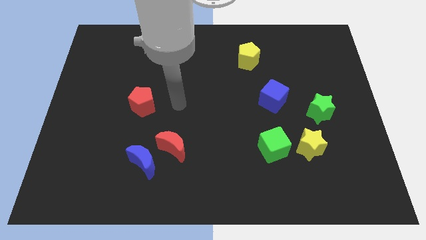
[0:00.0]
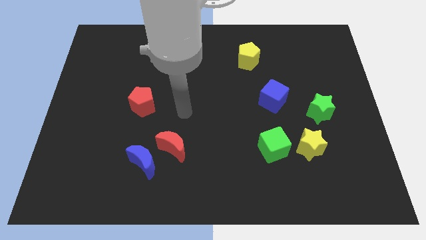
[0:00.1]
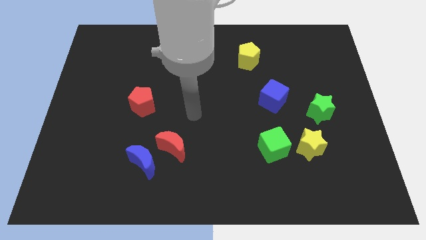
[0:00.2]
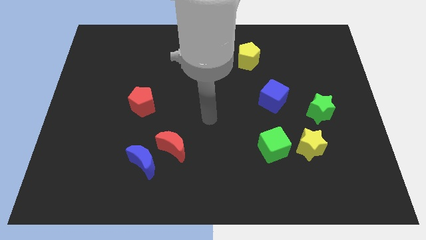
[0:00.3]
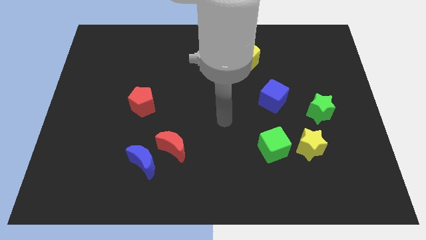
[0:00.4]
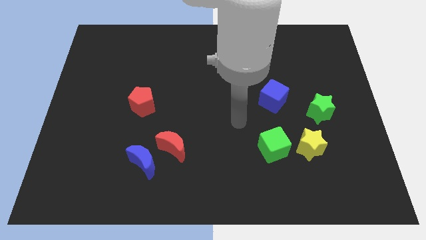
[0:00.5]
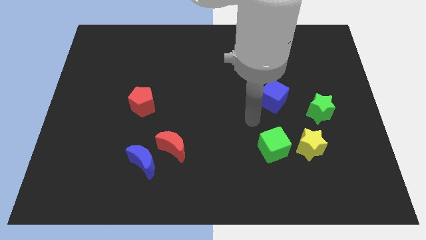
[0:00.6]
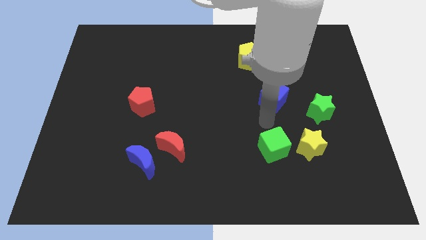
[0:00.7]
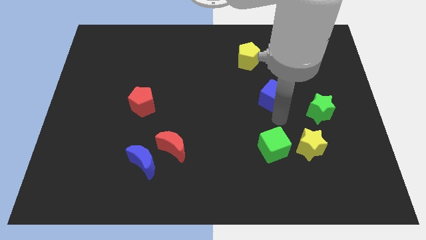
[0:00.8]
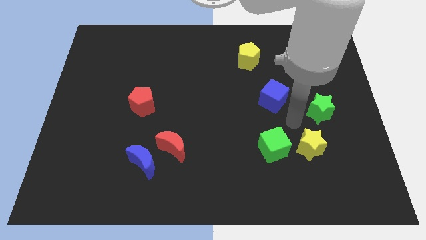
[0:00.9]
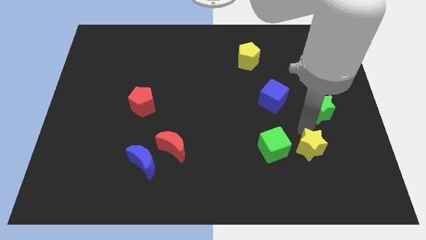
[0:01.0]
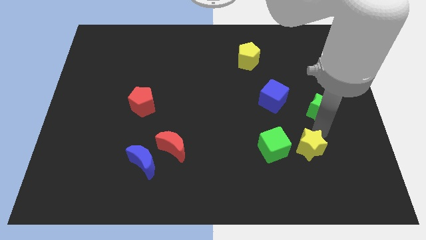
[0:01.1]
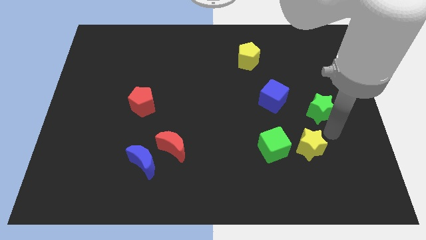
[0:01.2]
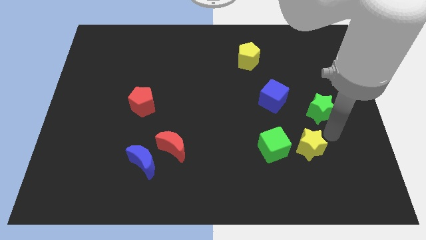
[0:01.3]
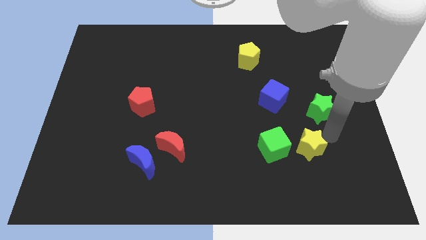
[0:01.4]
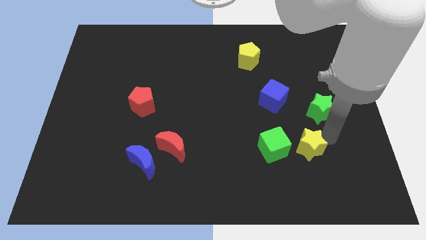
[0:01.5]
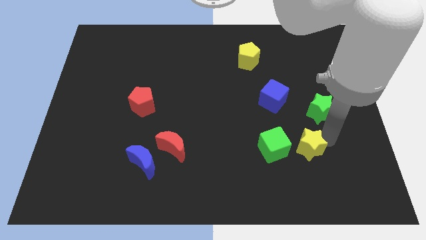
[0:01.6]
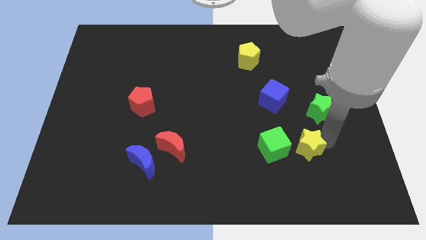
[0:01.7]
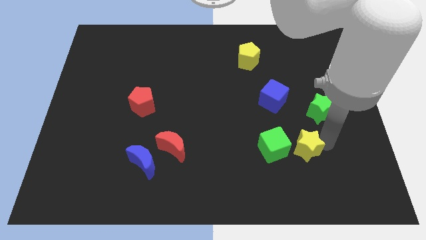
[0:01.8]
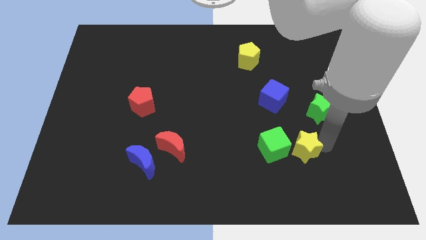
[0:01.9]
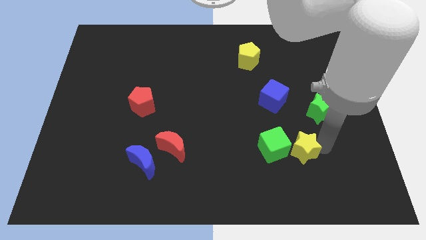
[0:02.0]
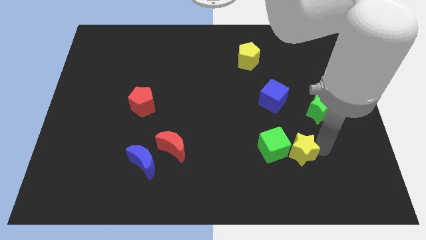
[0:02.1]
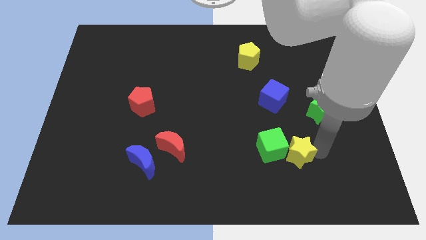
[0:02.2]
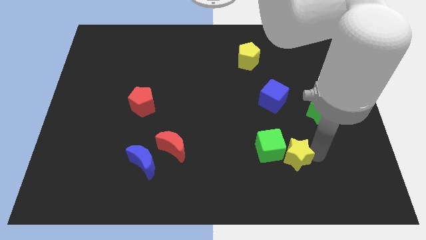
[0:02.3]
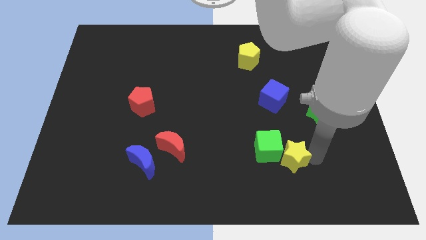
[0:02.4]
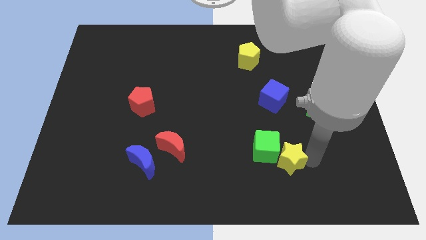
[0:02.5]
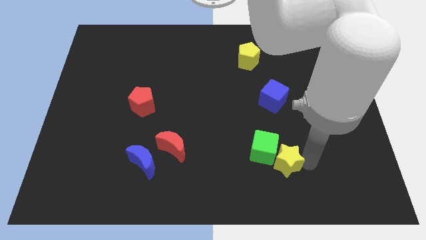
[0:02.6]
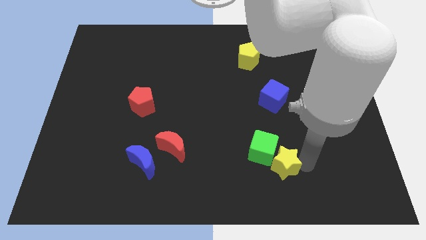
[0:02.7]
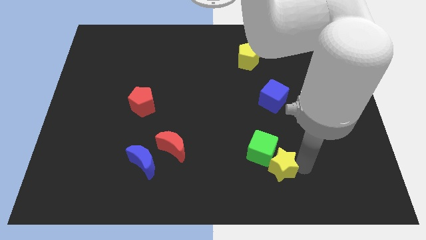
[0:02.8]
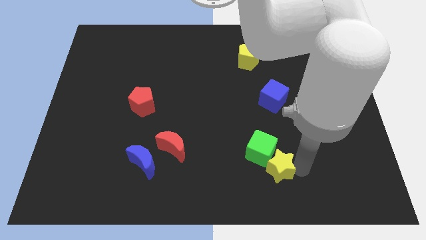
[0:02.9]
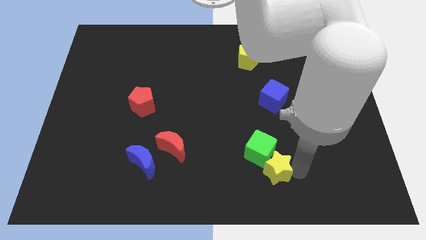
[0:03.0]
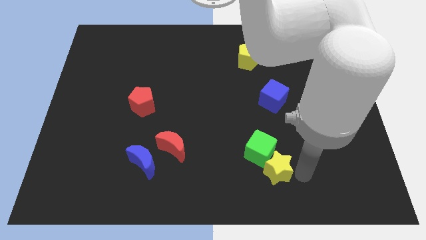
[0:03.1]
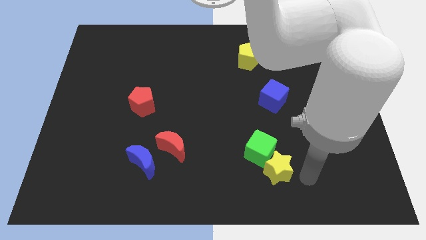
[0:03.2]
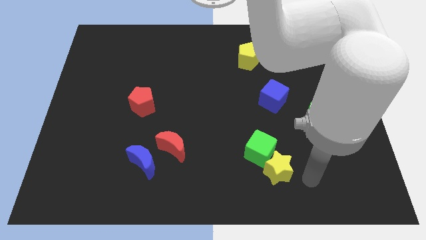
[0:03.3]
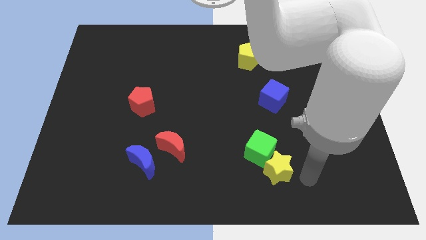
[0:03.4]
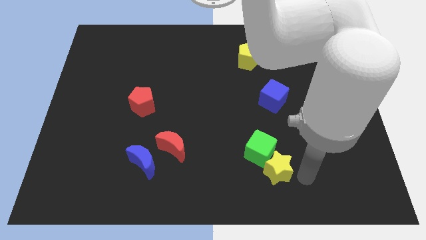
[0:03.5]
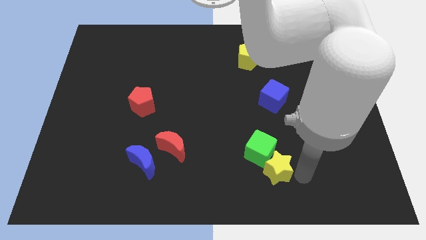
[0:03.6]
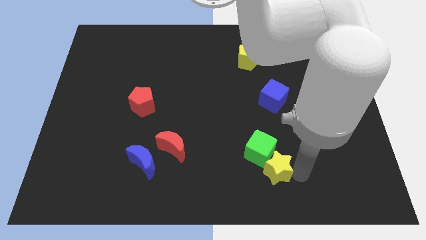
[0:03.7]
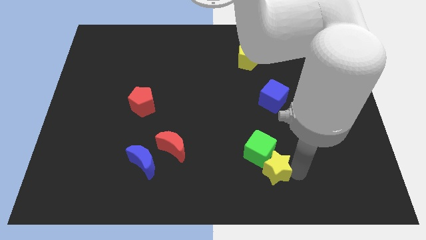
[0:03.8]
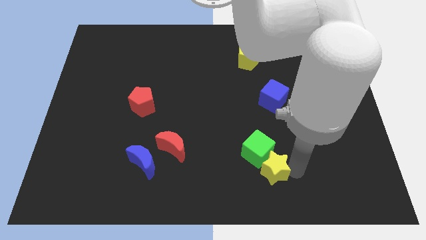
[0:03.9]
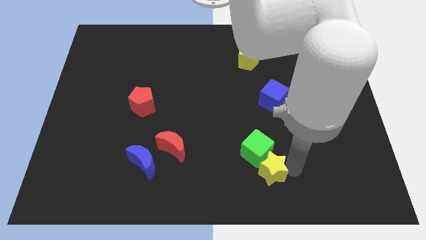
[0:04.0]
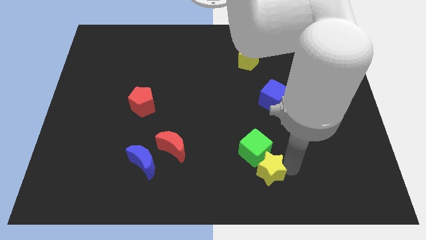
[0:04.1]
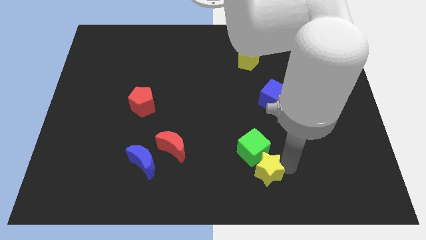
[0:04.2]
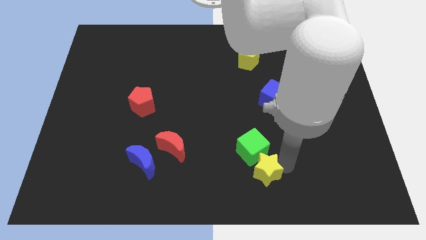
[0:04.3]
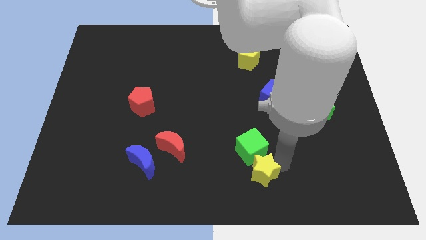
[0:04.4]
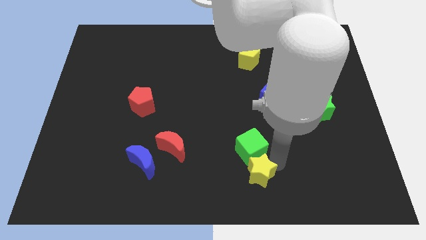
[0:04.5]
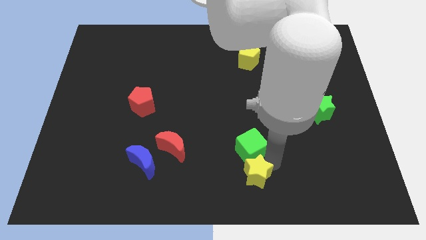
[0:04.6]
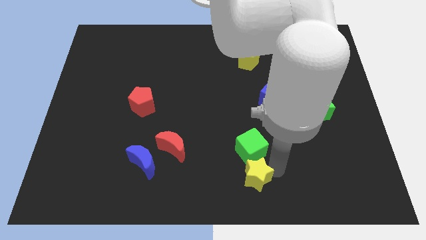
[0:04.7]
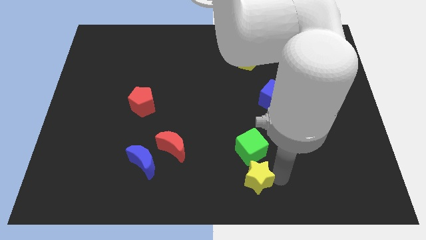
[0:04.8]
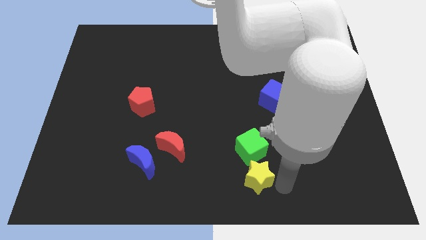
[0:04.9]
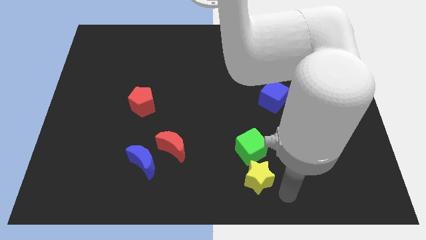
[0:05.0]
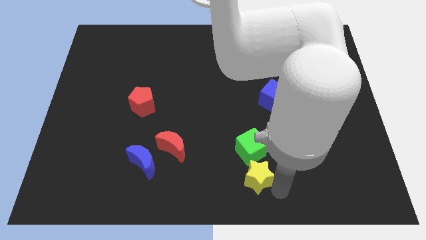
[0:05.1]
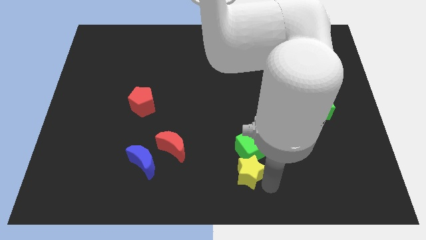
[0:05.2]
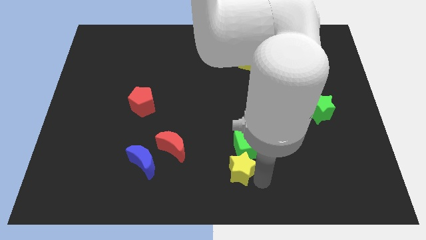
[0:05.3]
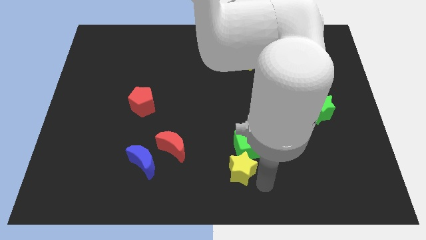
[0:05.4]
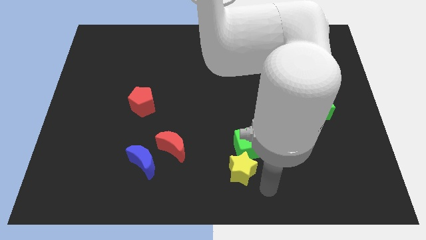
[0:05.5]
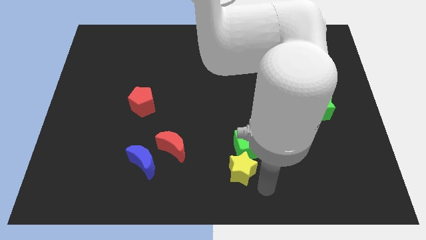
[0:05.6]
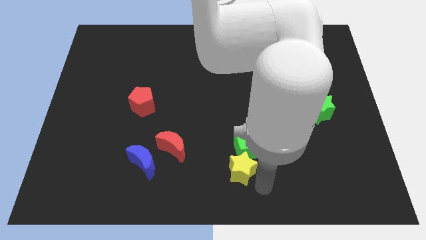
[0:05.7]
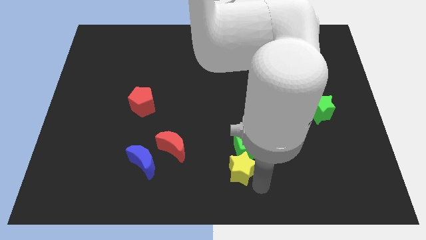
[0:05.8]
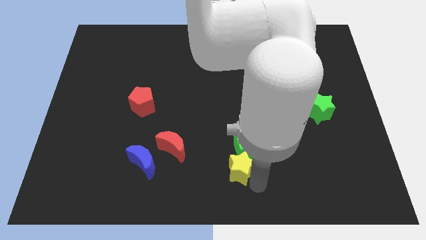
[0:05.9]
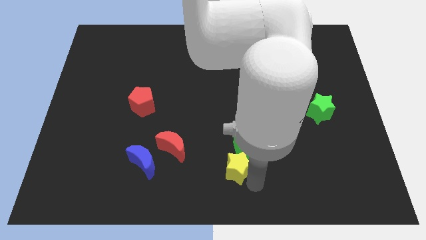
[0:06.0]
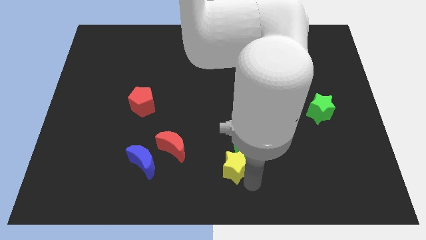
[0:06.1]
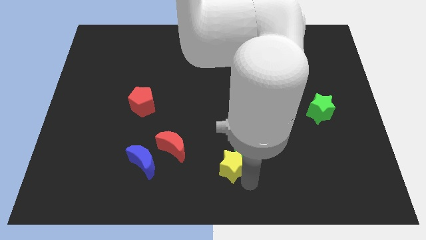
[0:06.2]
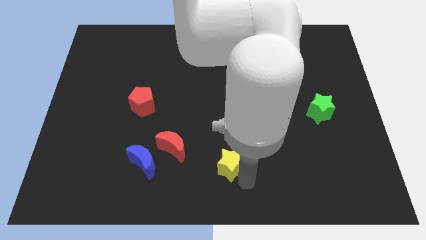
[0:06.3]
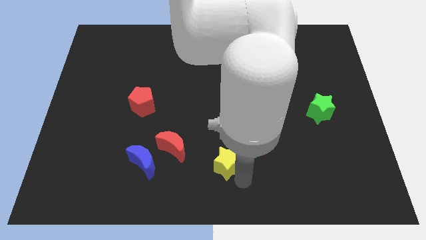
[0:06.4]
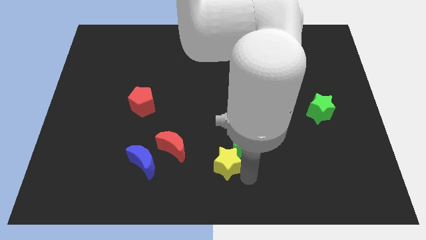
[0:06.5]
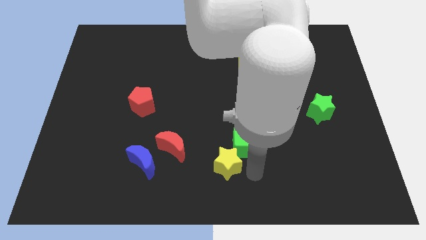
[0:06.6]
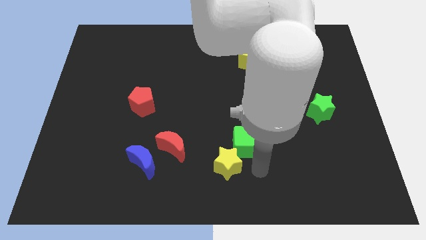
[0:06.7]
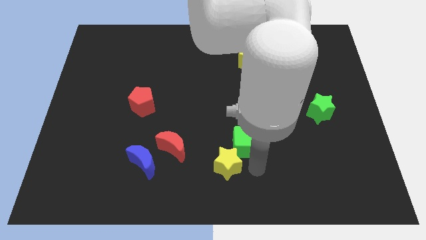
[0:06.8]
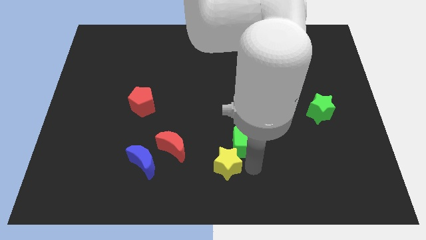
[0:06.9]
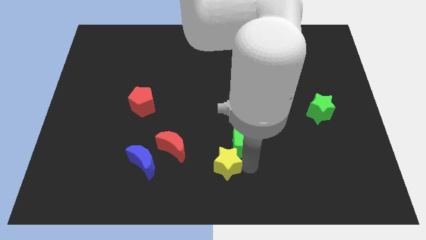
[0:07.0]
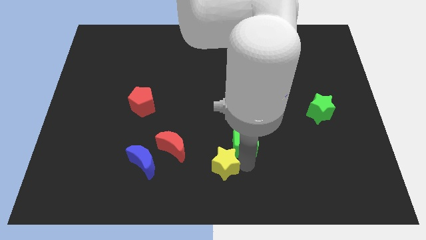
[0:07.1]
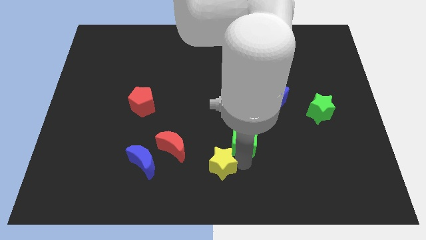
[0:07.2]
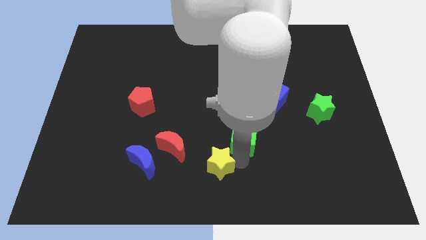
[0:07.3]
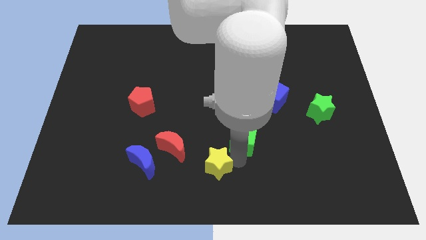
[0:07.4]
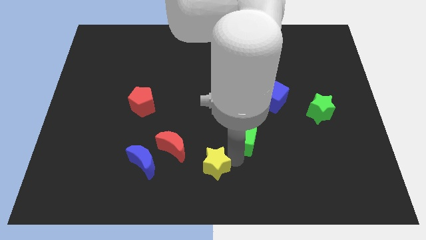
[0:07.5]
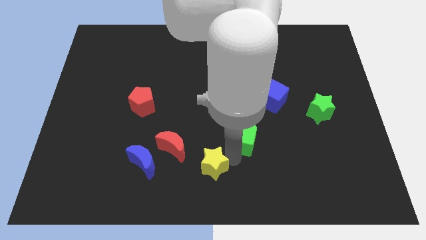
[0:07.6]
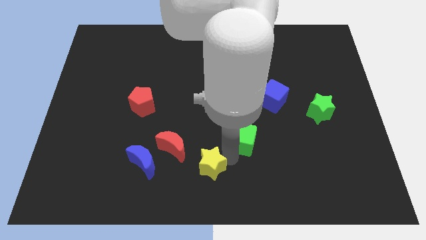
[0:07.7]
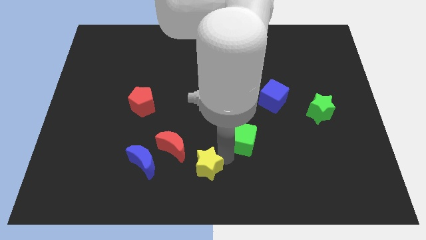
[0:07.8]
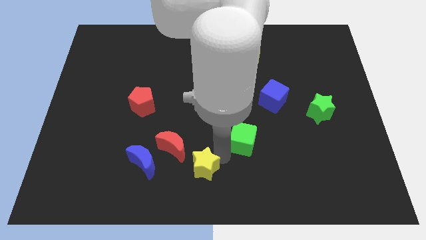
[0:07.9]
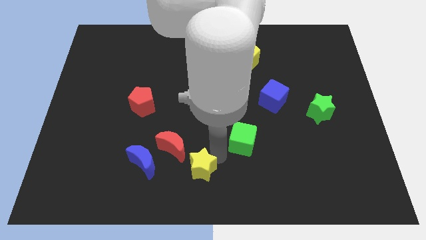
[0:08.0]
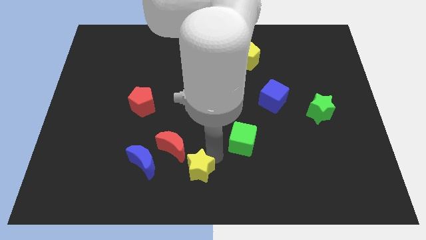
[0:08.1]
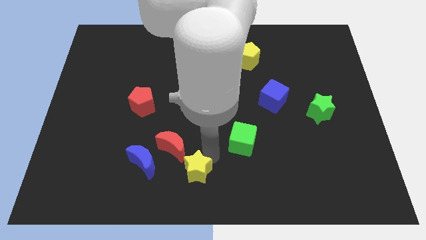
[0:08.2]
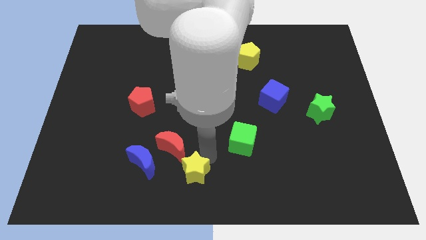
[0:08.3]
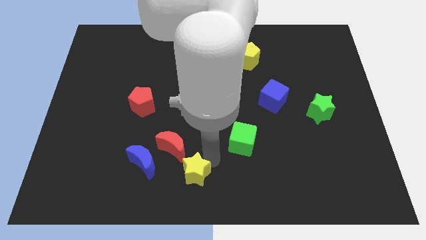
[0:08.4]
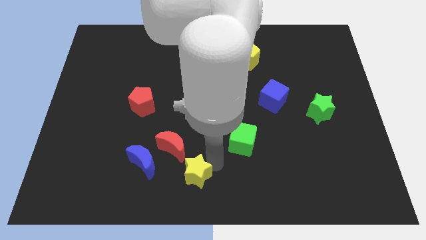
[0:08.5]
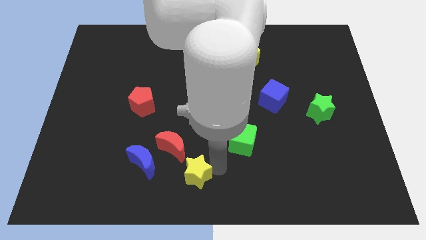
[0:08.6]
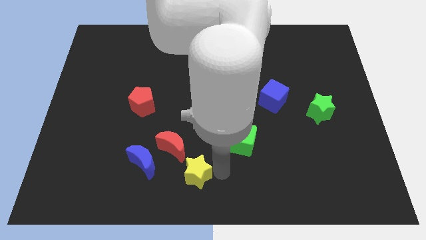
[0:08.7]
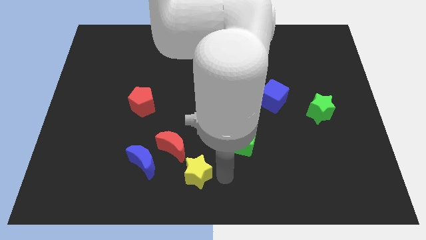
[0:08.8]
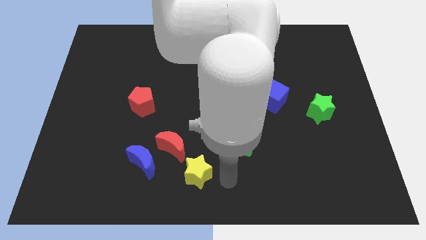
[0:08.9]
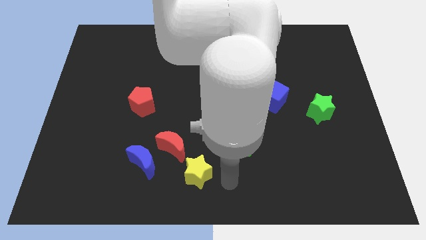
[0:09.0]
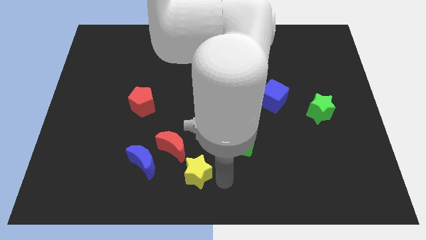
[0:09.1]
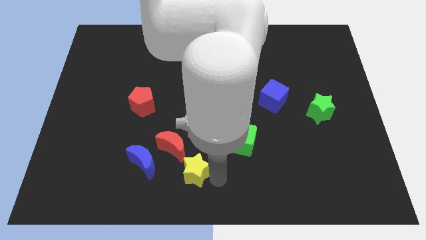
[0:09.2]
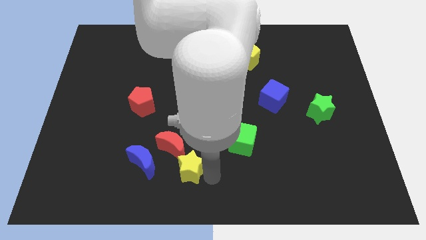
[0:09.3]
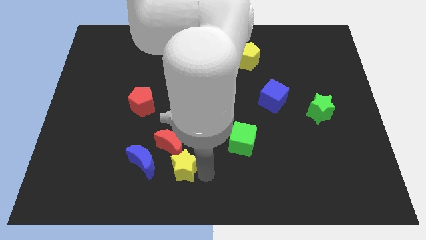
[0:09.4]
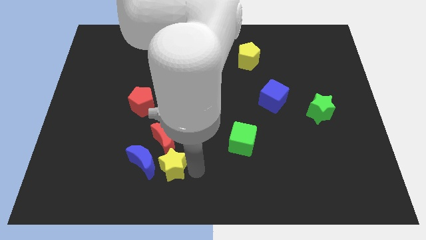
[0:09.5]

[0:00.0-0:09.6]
push the yellow star to the blue moon
